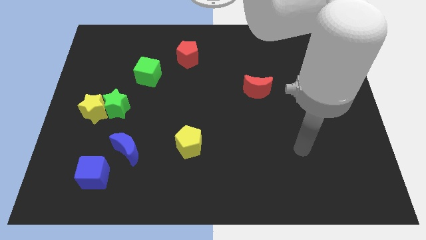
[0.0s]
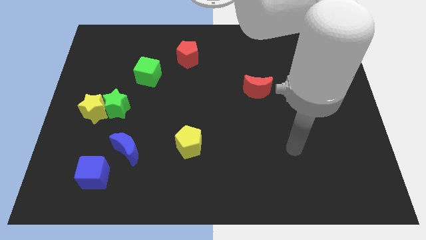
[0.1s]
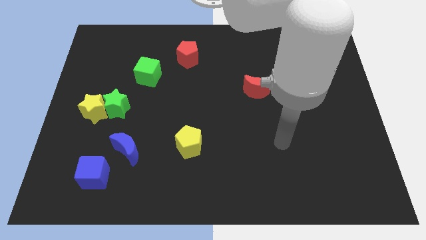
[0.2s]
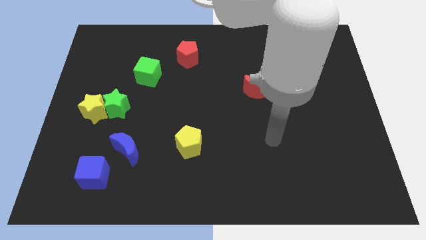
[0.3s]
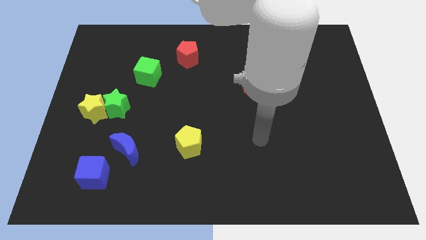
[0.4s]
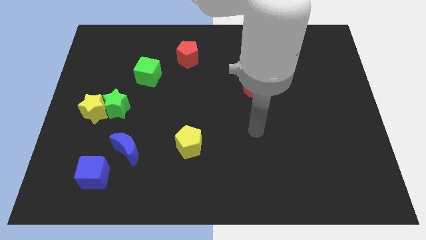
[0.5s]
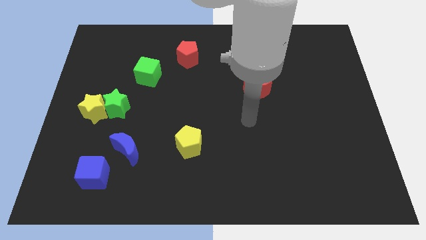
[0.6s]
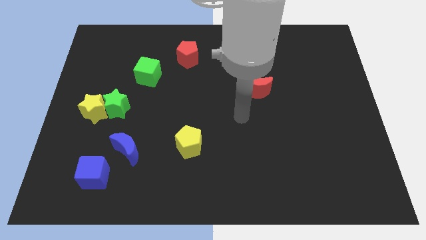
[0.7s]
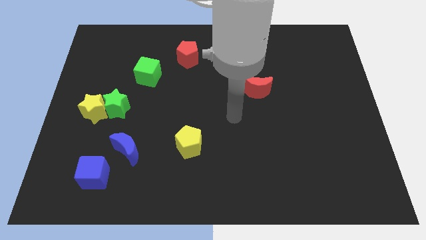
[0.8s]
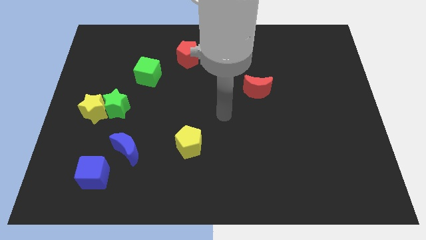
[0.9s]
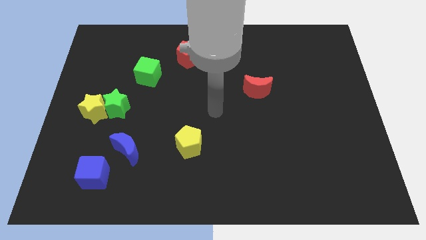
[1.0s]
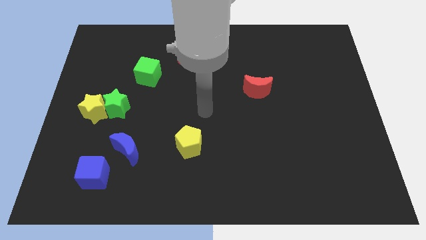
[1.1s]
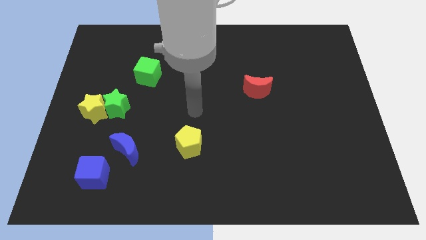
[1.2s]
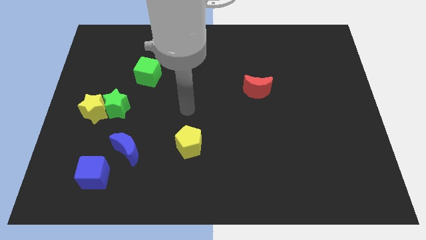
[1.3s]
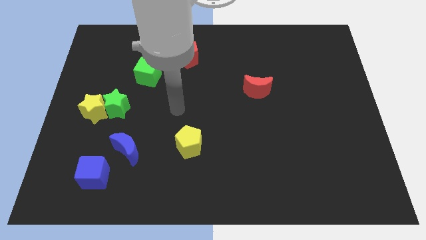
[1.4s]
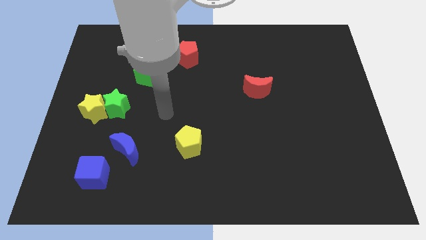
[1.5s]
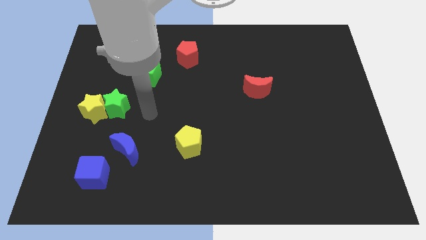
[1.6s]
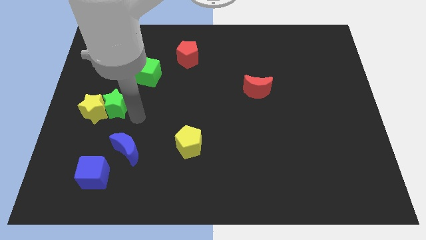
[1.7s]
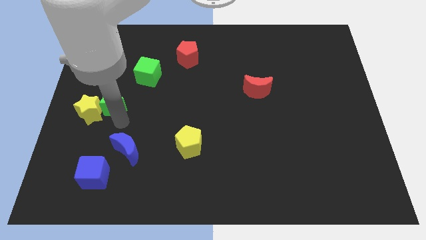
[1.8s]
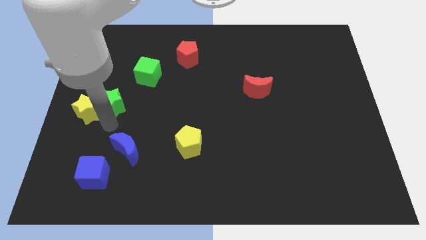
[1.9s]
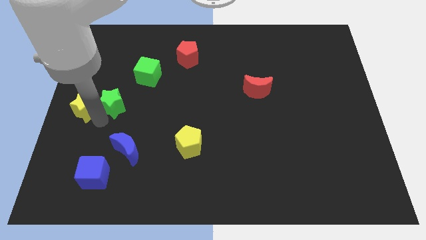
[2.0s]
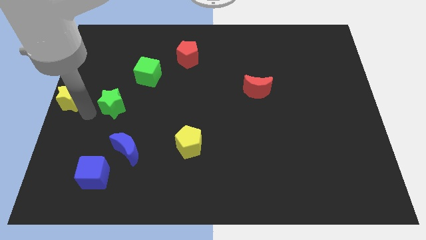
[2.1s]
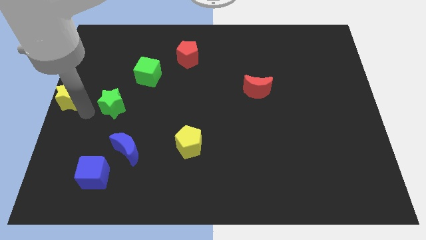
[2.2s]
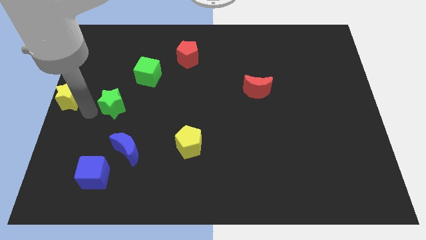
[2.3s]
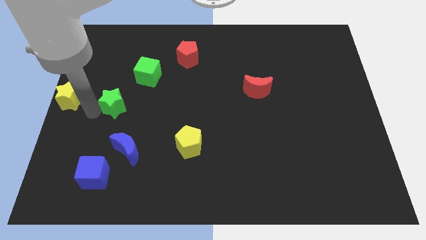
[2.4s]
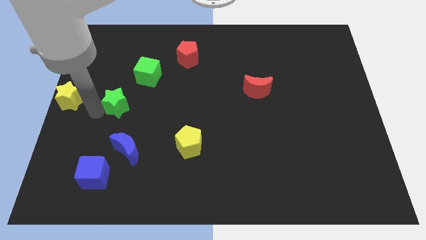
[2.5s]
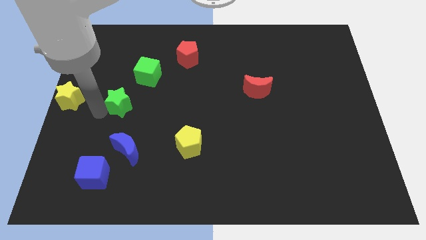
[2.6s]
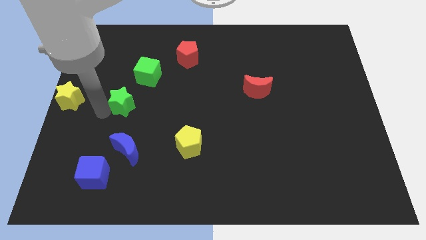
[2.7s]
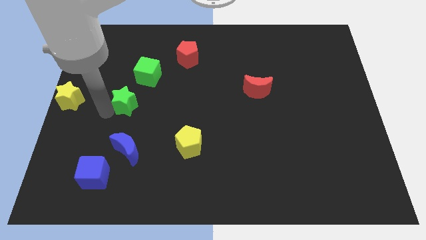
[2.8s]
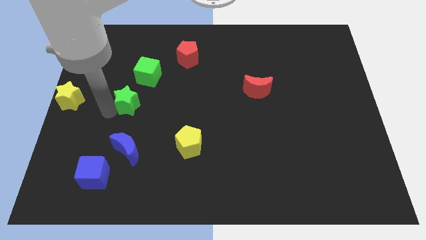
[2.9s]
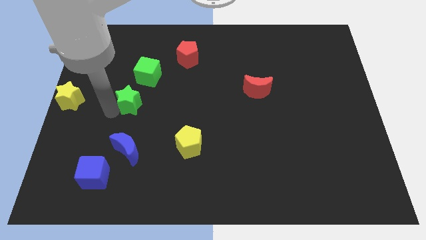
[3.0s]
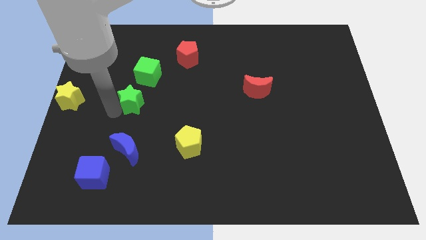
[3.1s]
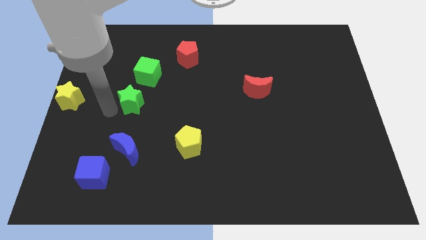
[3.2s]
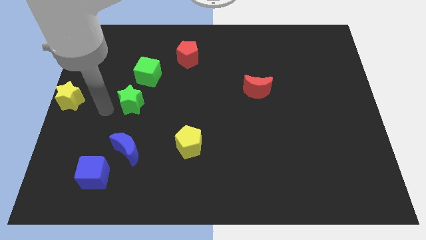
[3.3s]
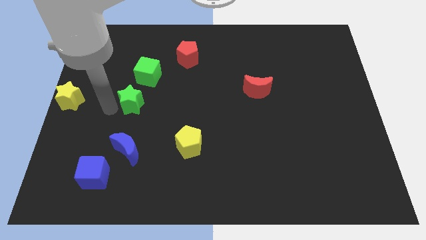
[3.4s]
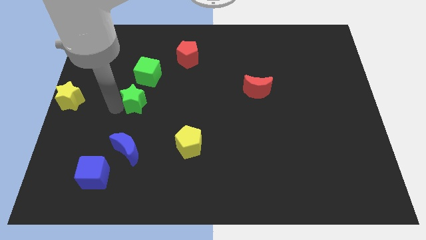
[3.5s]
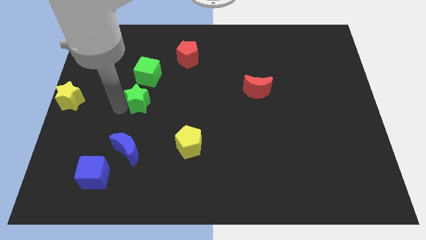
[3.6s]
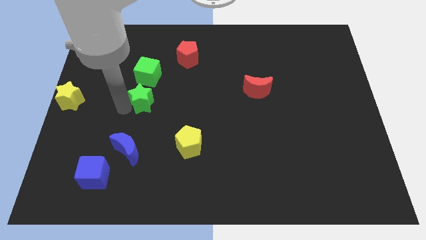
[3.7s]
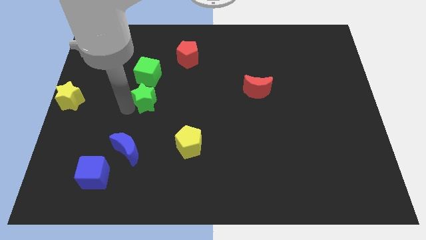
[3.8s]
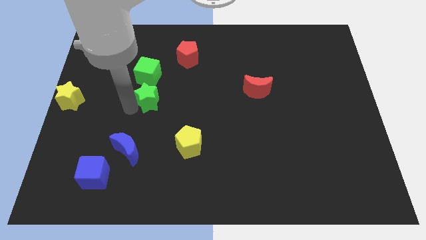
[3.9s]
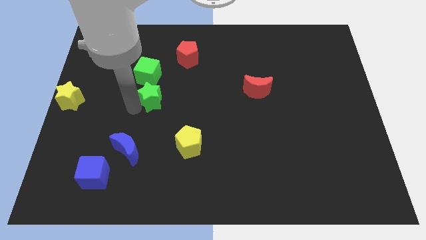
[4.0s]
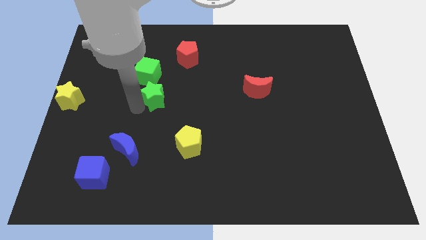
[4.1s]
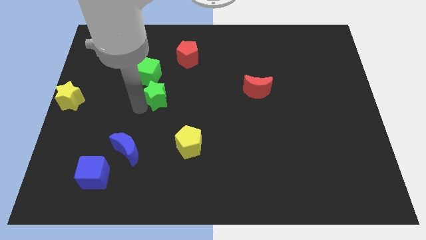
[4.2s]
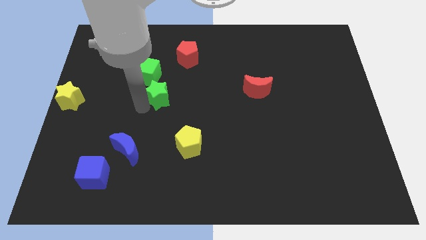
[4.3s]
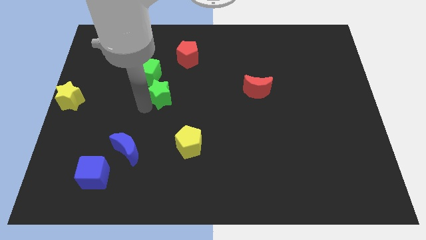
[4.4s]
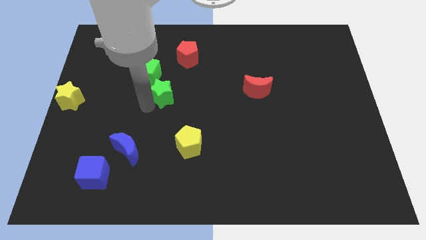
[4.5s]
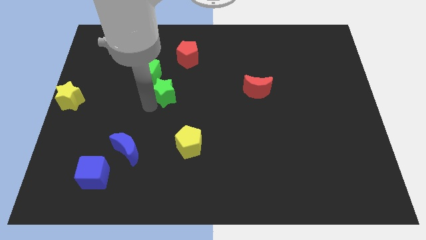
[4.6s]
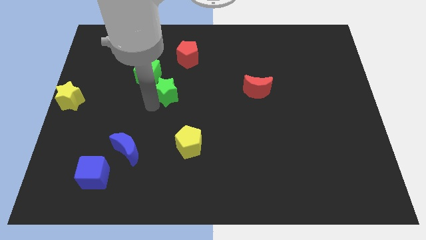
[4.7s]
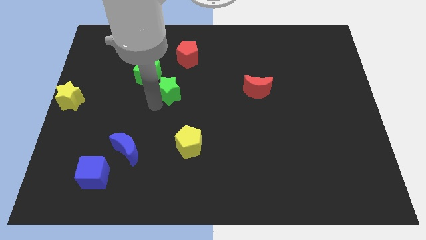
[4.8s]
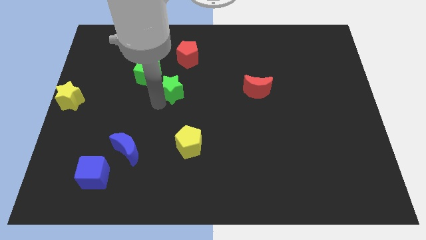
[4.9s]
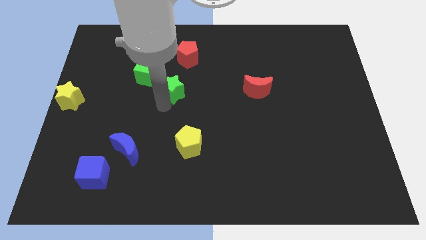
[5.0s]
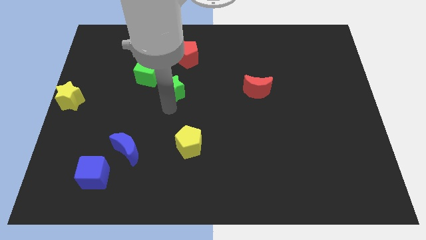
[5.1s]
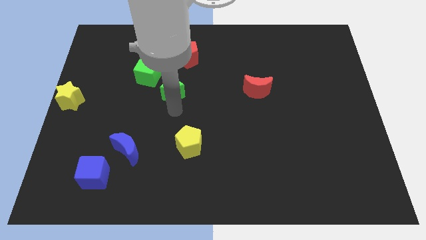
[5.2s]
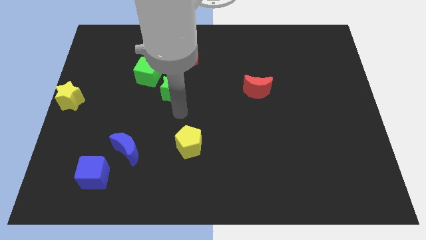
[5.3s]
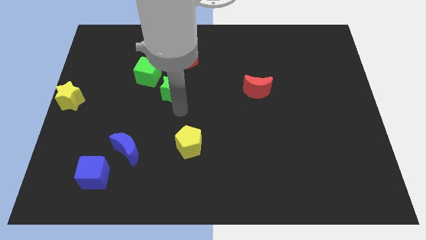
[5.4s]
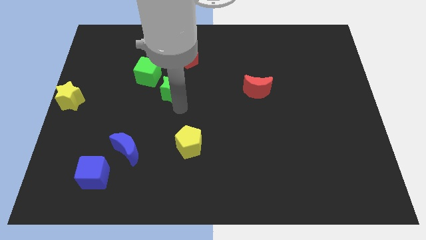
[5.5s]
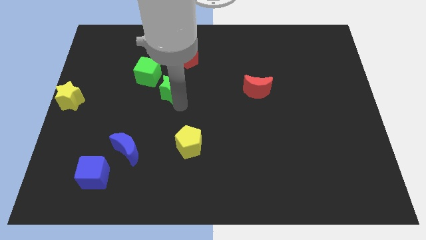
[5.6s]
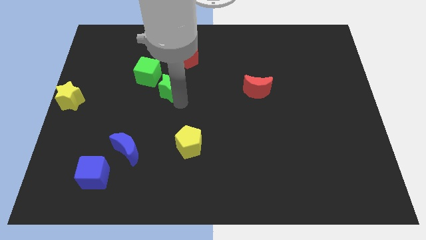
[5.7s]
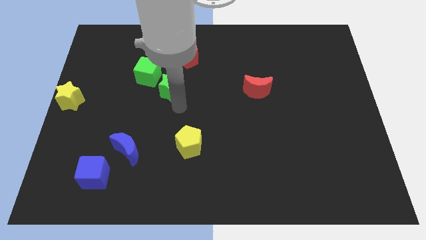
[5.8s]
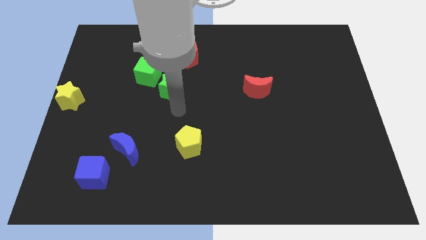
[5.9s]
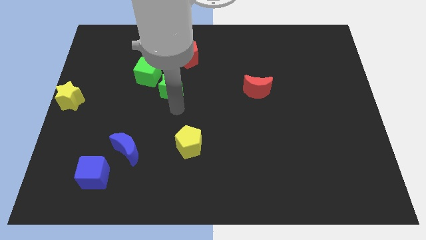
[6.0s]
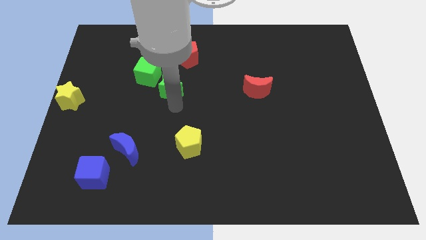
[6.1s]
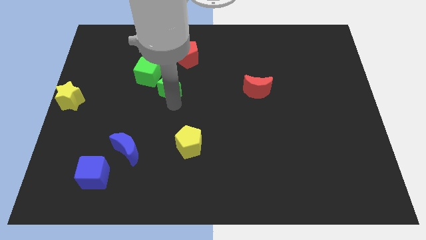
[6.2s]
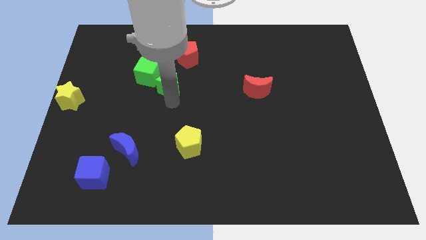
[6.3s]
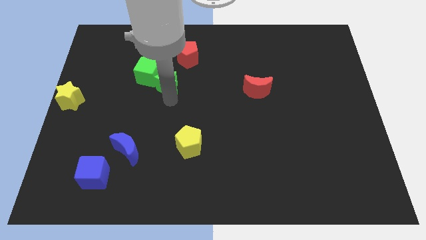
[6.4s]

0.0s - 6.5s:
push the green star to the bottom left side of the red pentagon

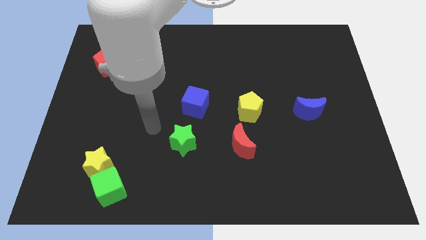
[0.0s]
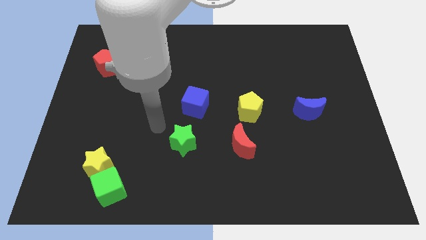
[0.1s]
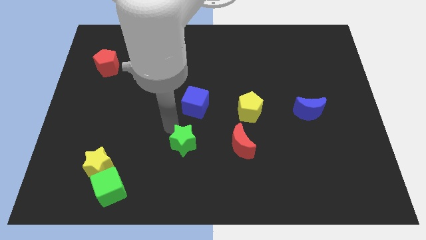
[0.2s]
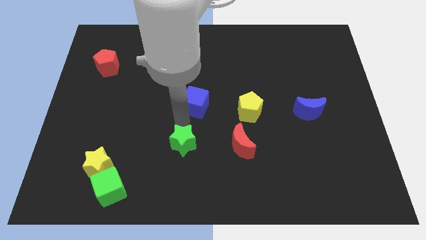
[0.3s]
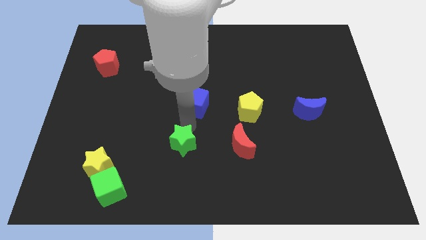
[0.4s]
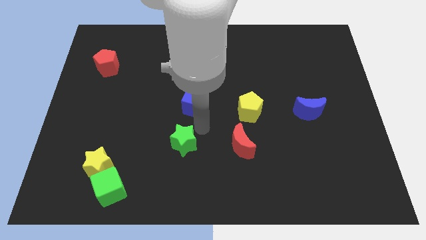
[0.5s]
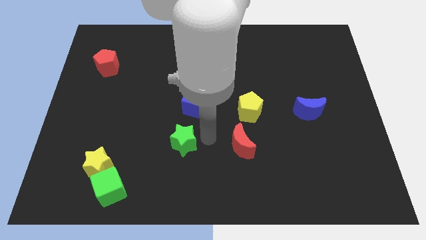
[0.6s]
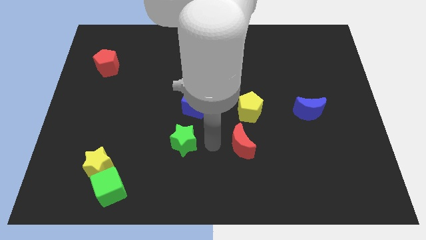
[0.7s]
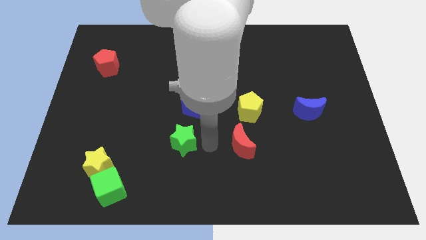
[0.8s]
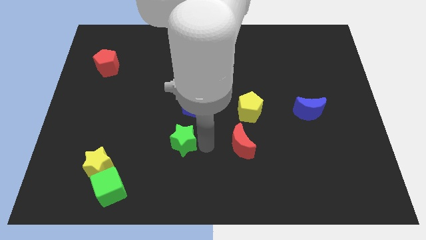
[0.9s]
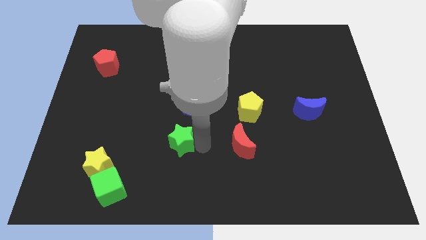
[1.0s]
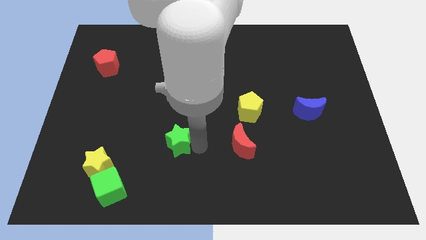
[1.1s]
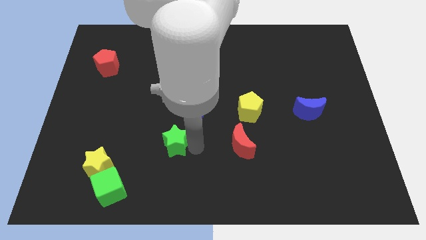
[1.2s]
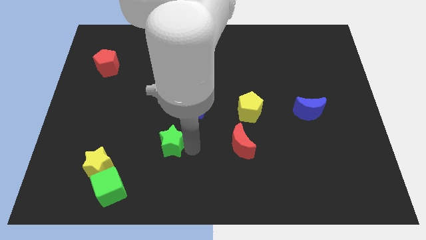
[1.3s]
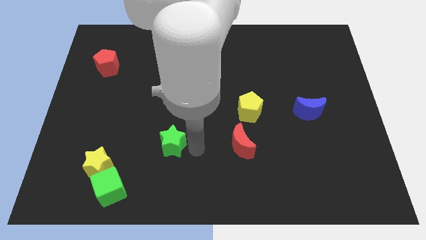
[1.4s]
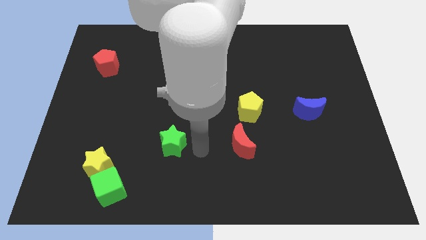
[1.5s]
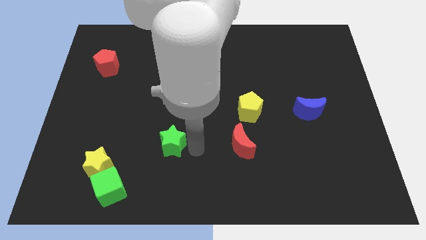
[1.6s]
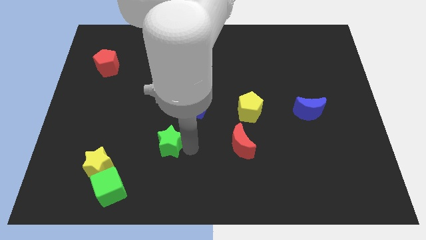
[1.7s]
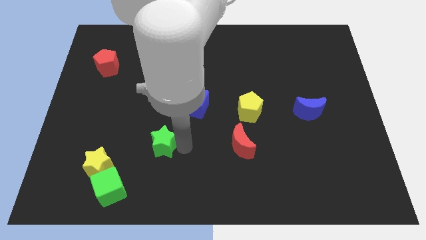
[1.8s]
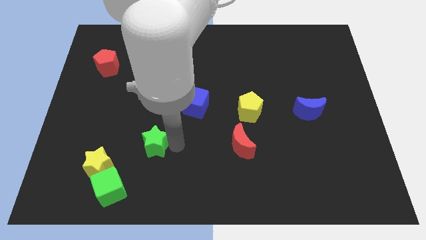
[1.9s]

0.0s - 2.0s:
push the green star diagonally up and to the right of the yellow star
